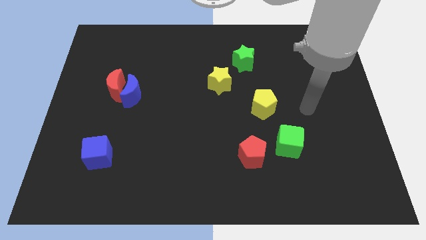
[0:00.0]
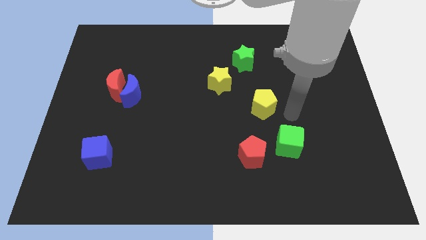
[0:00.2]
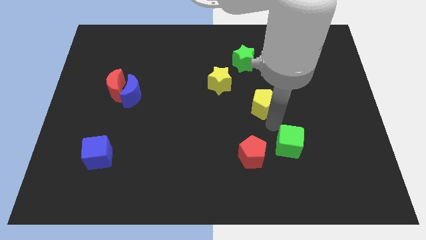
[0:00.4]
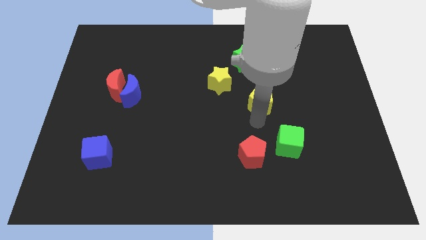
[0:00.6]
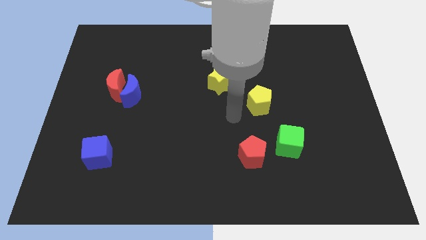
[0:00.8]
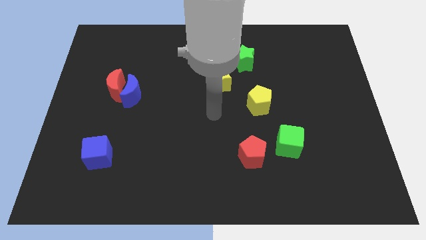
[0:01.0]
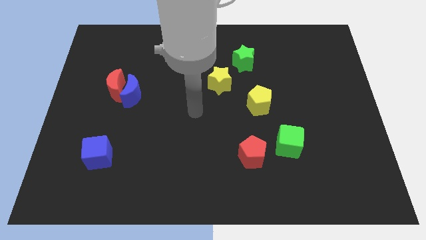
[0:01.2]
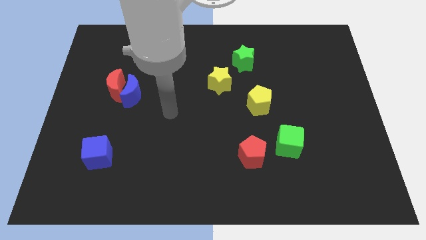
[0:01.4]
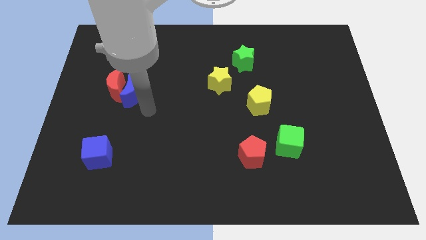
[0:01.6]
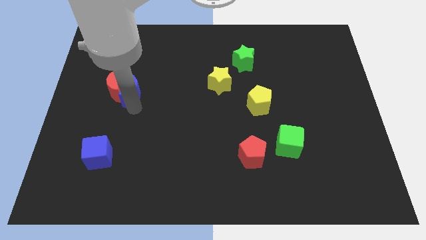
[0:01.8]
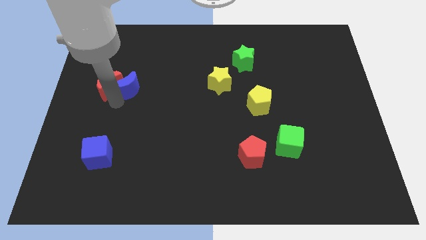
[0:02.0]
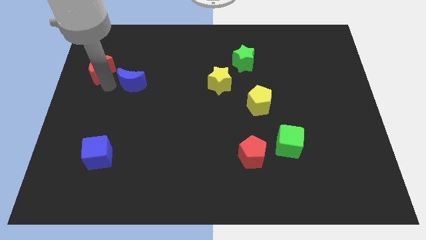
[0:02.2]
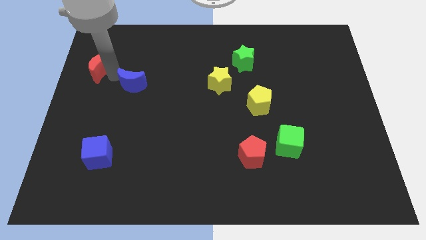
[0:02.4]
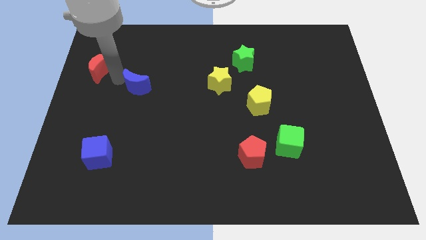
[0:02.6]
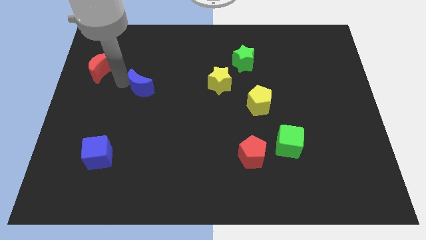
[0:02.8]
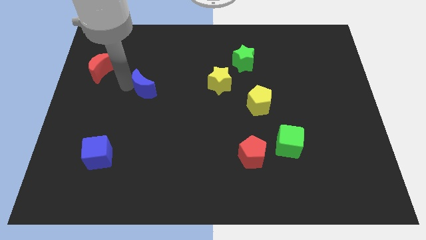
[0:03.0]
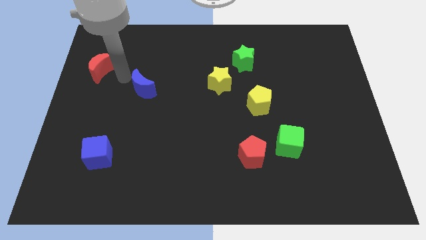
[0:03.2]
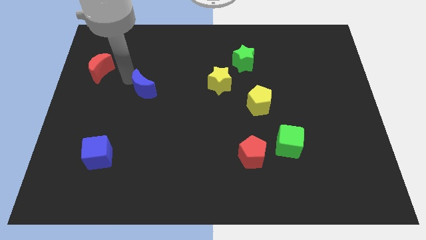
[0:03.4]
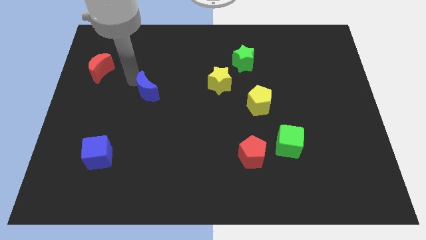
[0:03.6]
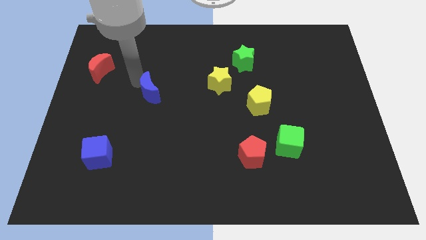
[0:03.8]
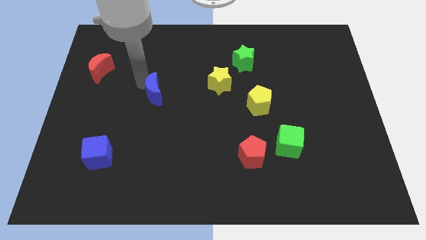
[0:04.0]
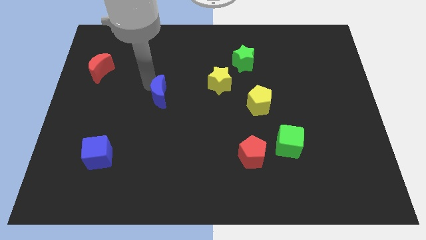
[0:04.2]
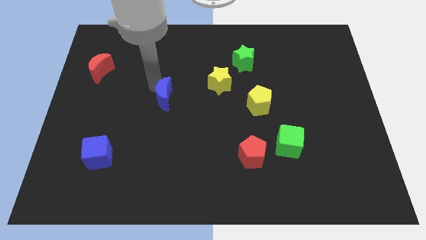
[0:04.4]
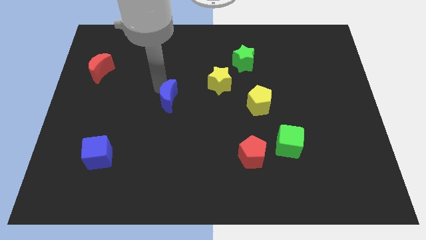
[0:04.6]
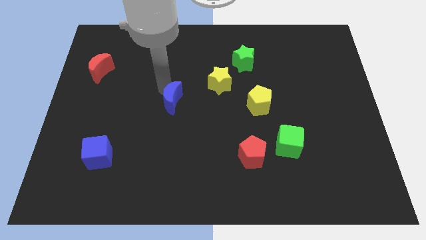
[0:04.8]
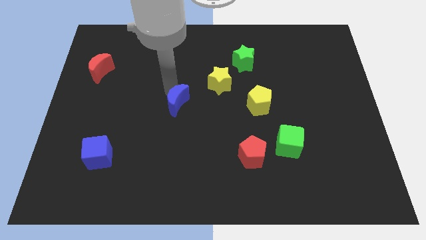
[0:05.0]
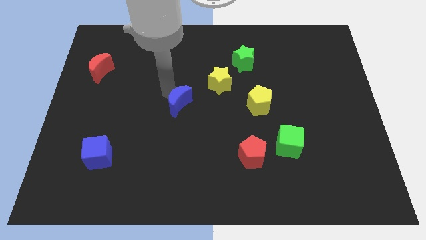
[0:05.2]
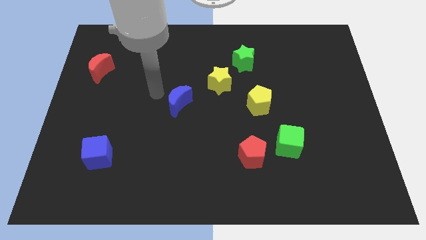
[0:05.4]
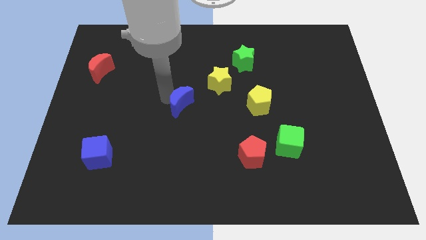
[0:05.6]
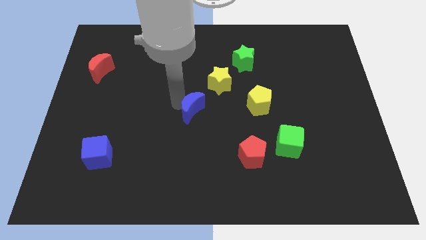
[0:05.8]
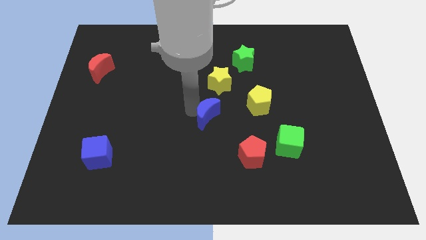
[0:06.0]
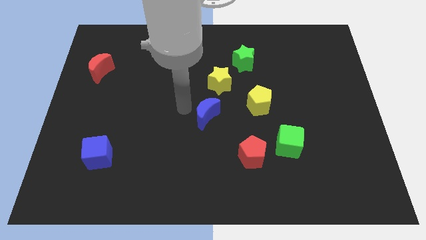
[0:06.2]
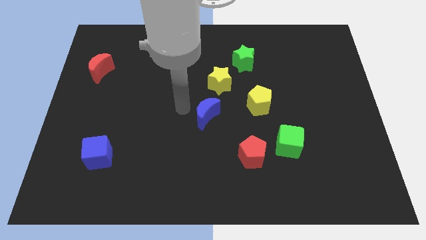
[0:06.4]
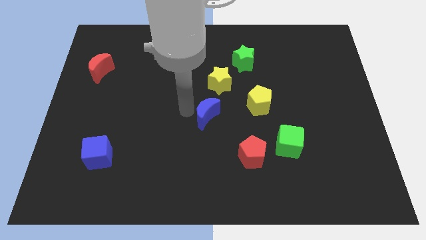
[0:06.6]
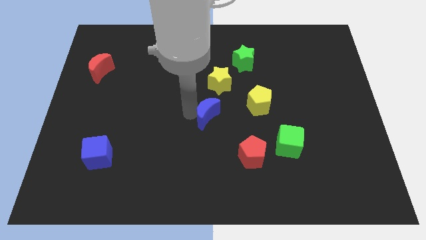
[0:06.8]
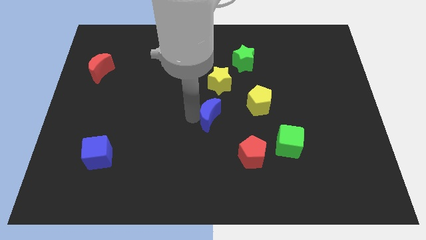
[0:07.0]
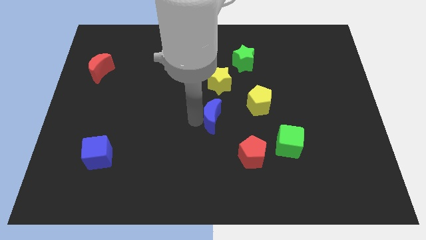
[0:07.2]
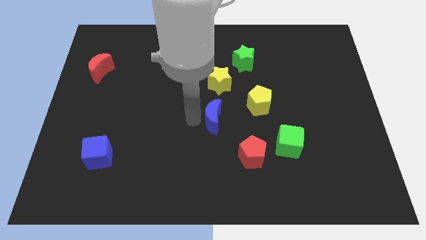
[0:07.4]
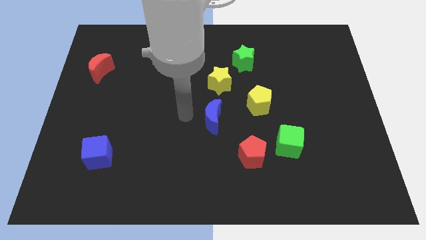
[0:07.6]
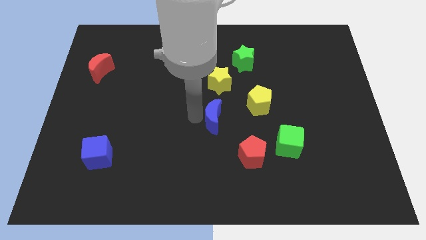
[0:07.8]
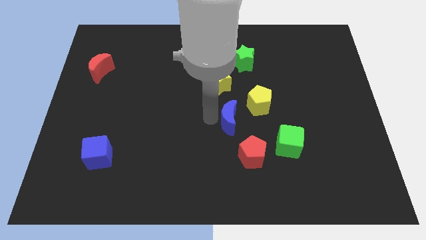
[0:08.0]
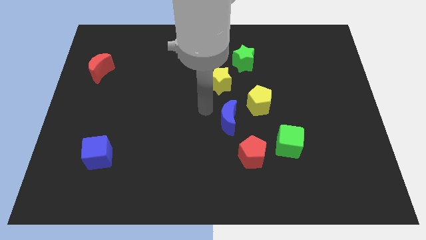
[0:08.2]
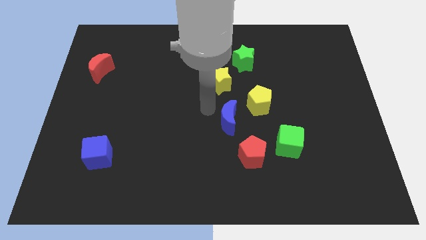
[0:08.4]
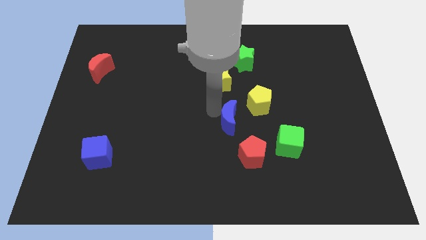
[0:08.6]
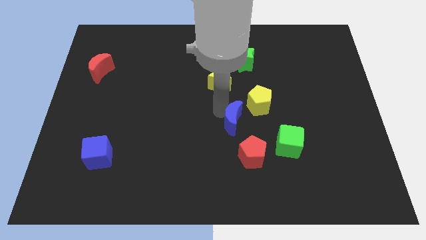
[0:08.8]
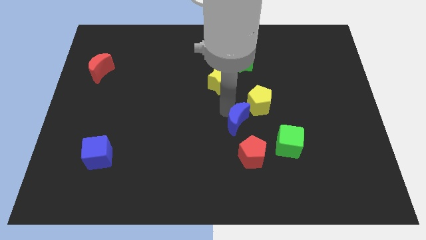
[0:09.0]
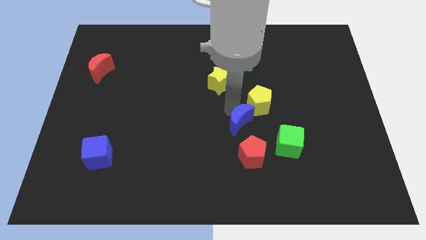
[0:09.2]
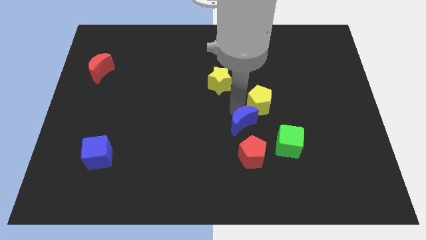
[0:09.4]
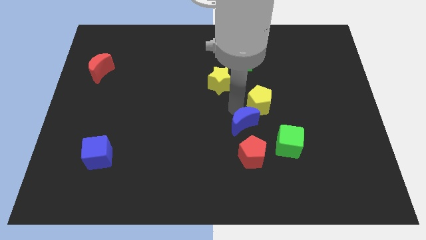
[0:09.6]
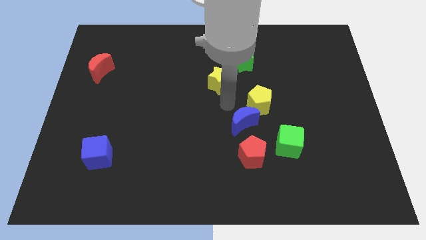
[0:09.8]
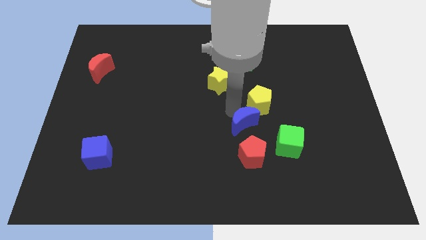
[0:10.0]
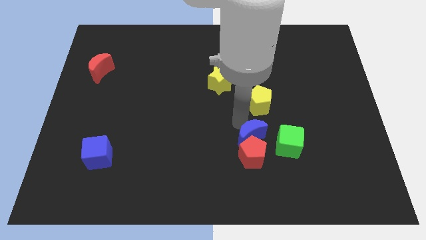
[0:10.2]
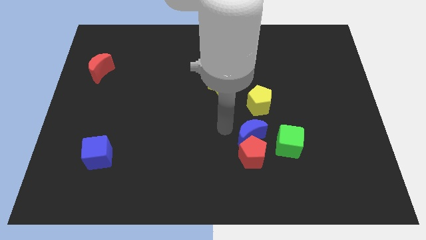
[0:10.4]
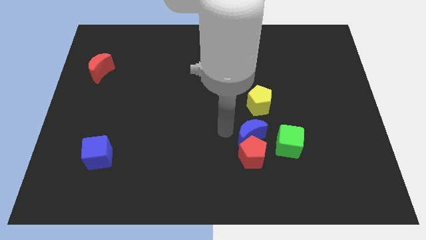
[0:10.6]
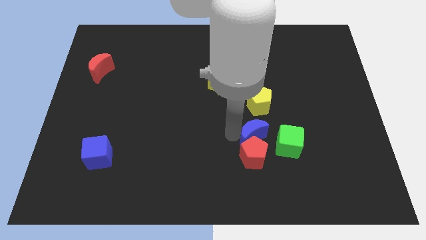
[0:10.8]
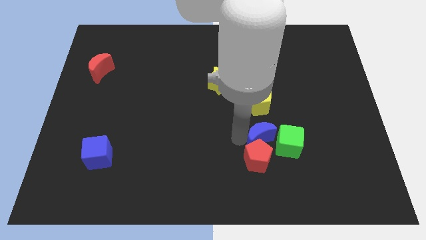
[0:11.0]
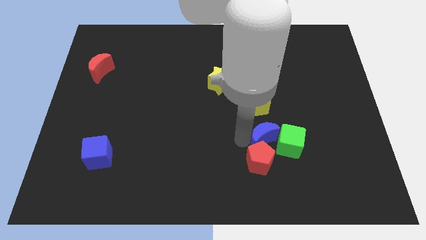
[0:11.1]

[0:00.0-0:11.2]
push the blue moon close to the green cube

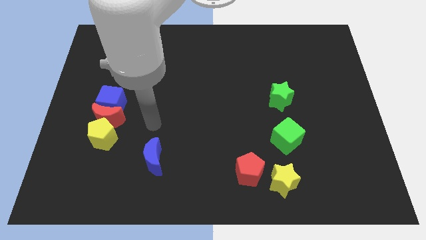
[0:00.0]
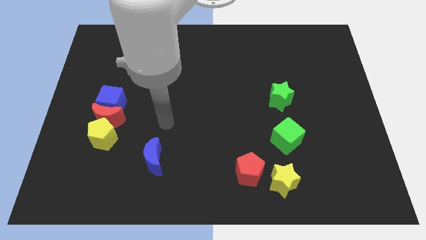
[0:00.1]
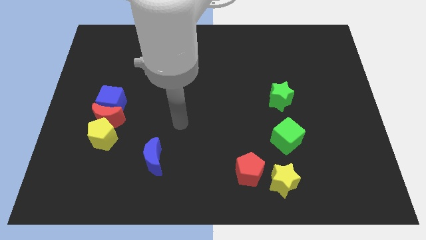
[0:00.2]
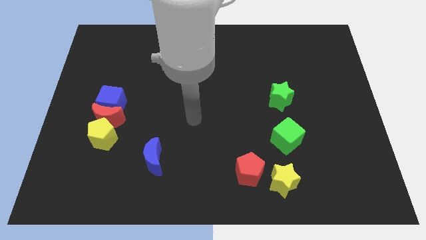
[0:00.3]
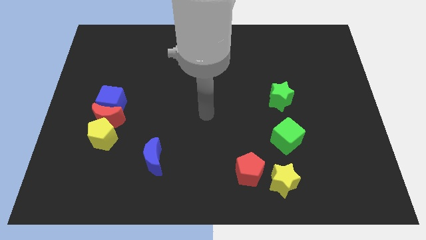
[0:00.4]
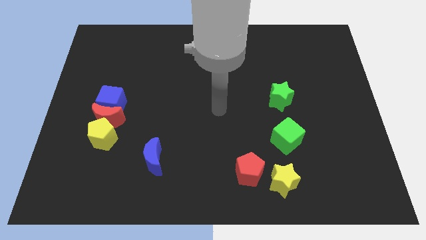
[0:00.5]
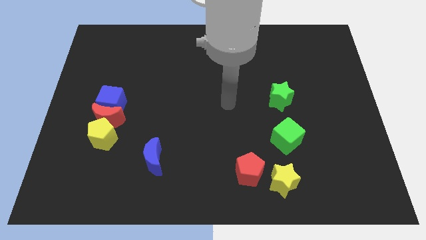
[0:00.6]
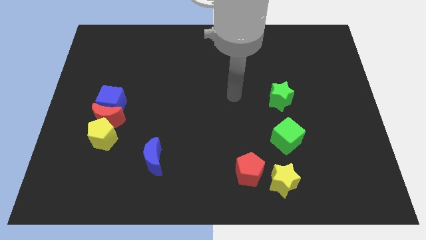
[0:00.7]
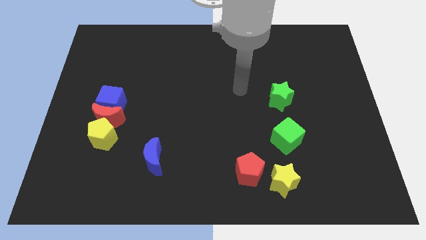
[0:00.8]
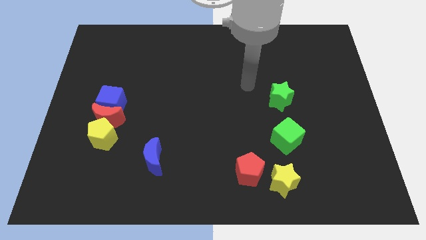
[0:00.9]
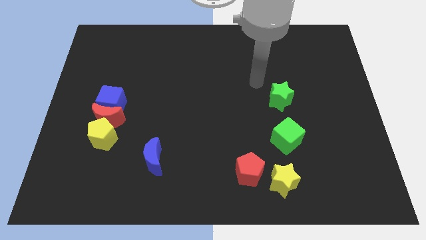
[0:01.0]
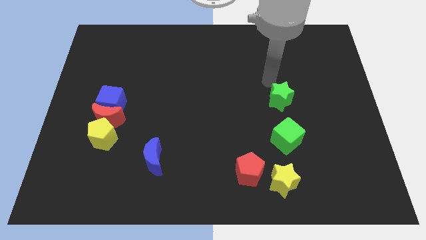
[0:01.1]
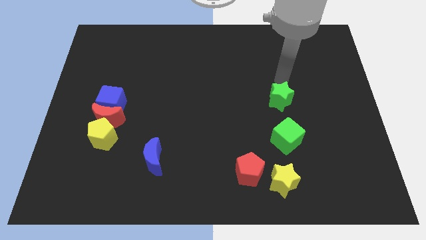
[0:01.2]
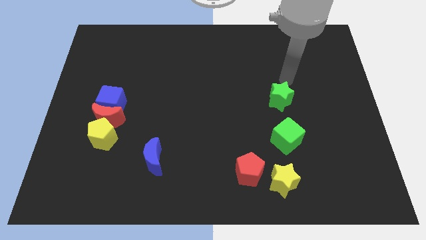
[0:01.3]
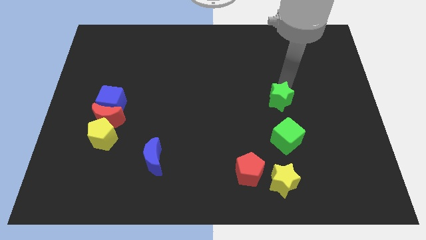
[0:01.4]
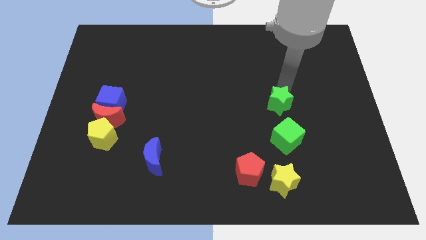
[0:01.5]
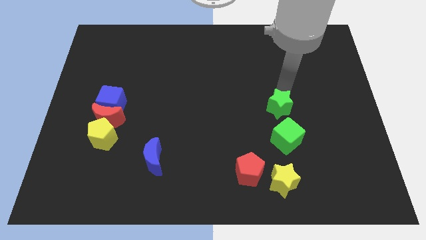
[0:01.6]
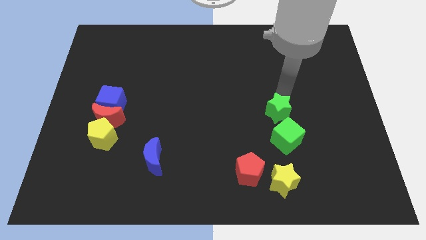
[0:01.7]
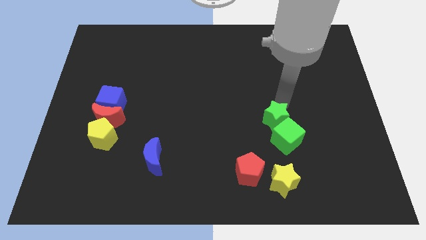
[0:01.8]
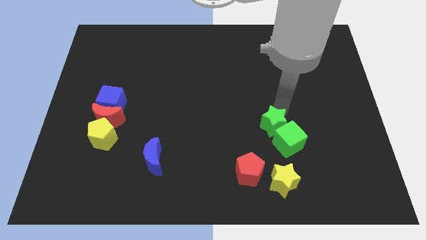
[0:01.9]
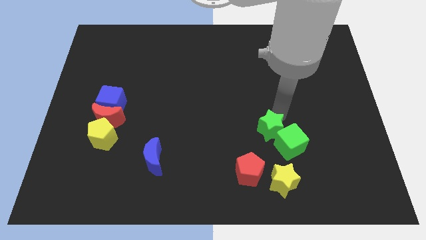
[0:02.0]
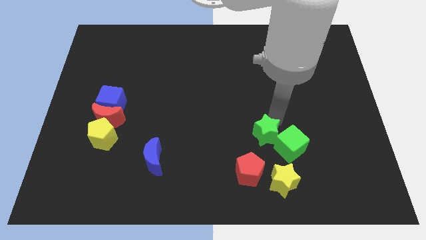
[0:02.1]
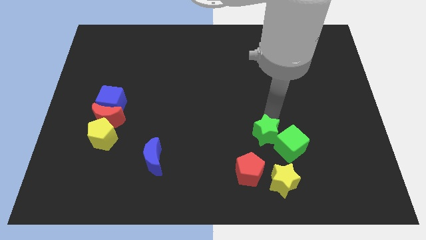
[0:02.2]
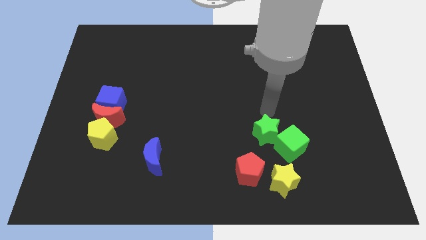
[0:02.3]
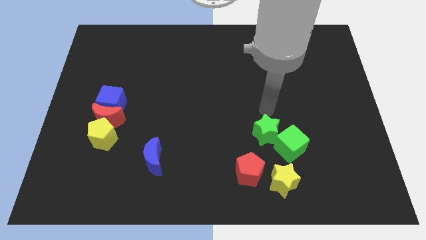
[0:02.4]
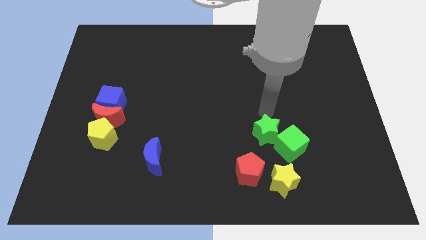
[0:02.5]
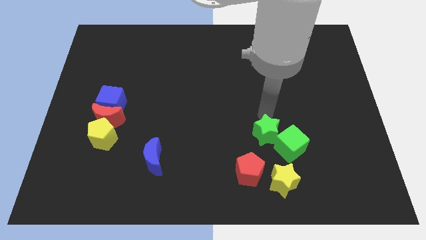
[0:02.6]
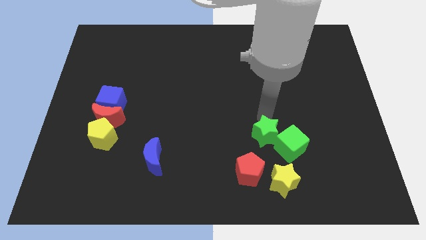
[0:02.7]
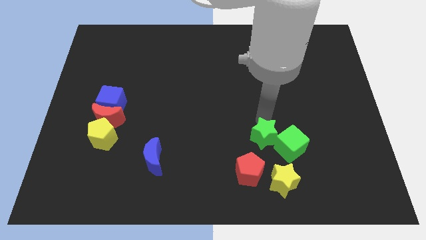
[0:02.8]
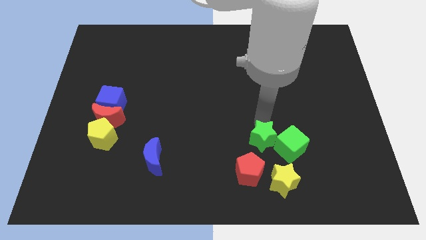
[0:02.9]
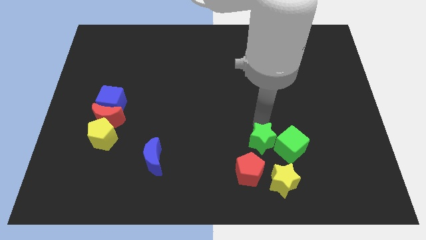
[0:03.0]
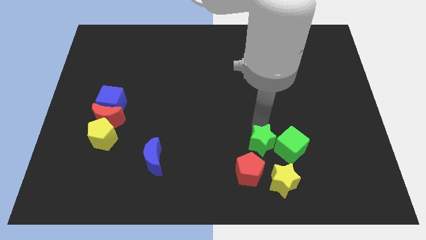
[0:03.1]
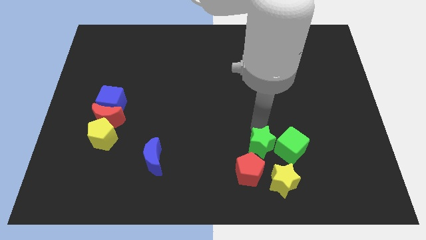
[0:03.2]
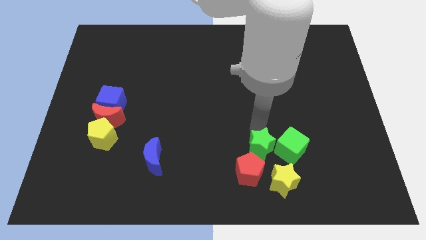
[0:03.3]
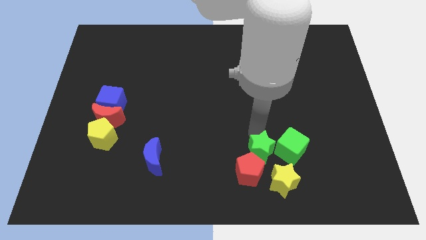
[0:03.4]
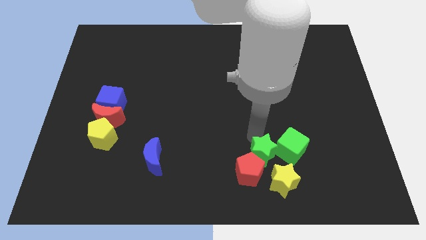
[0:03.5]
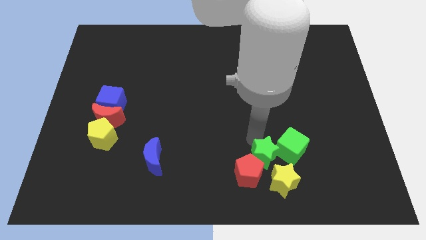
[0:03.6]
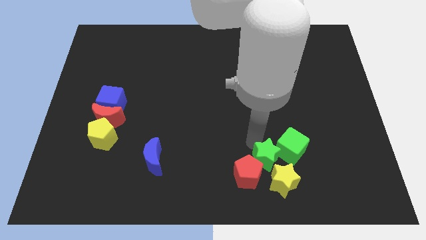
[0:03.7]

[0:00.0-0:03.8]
move the green star to the yellow star
